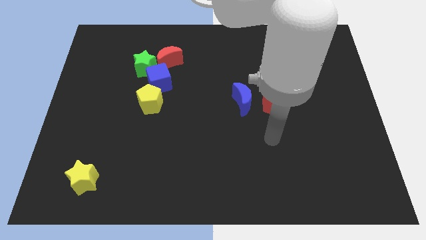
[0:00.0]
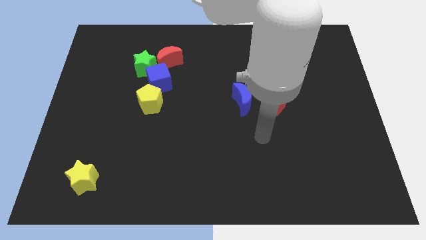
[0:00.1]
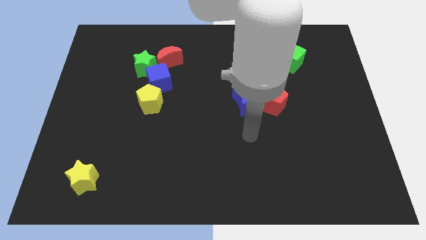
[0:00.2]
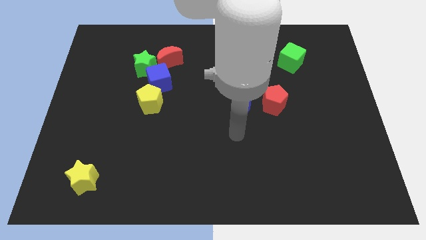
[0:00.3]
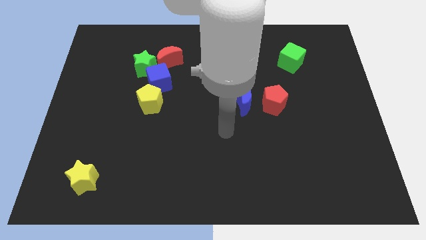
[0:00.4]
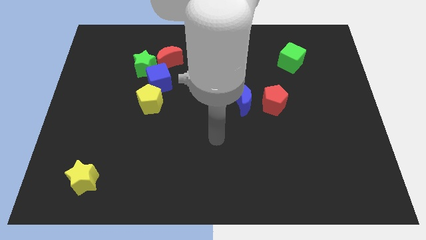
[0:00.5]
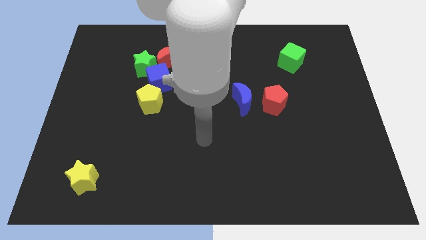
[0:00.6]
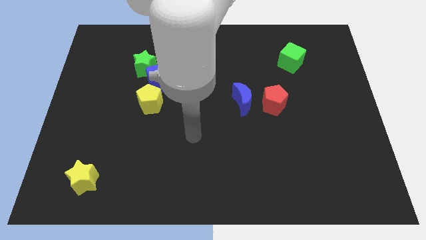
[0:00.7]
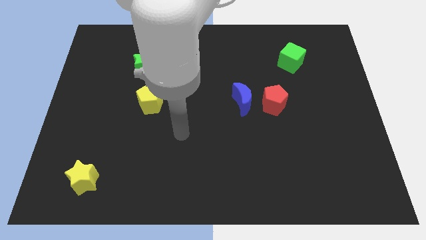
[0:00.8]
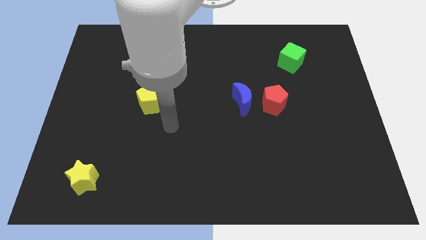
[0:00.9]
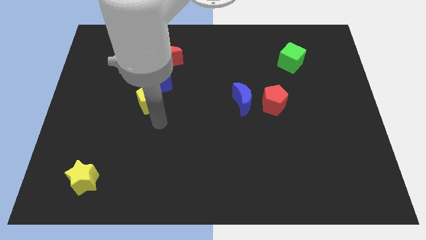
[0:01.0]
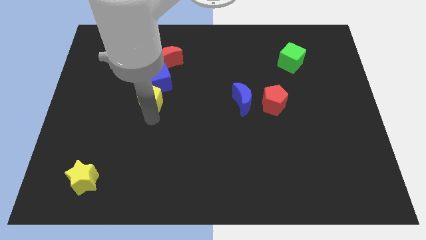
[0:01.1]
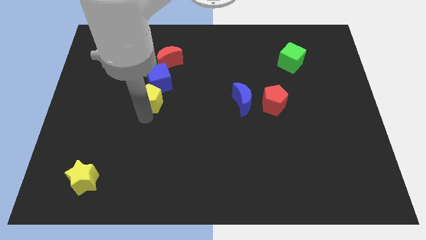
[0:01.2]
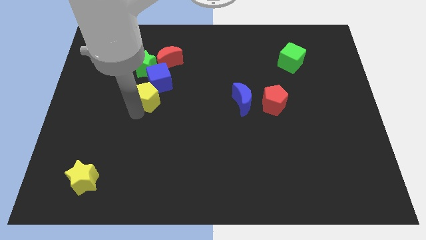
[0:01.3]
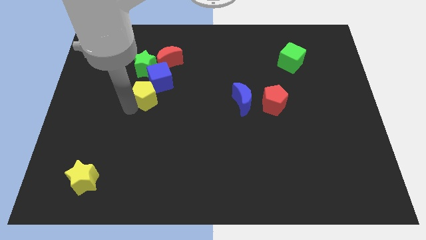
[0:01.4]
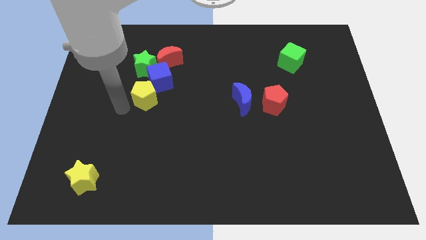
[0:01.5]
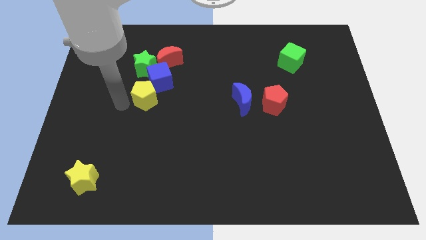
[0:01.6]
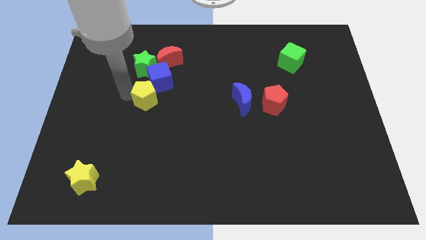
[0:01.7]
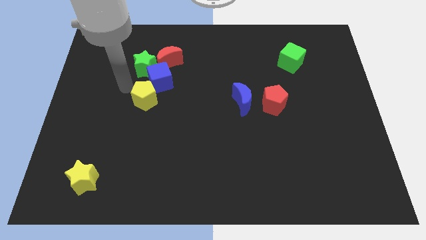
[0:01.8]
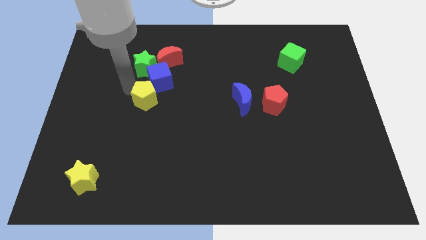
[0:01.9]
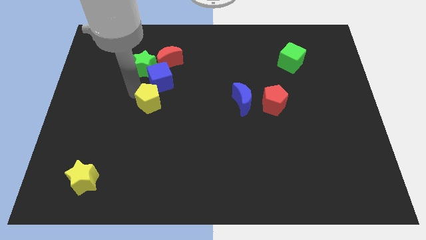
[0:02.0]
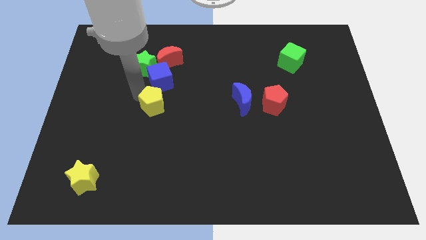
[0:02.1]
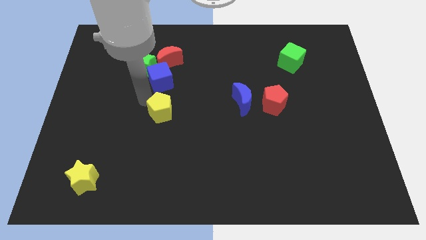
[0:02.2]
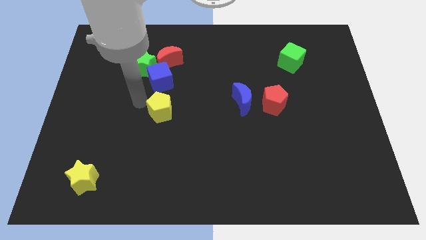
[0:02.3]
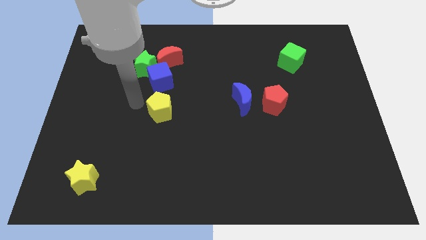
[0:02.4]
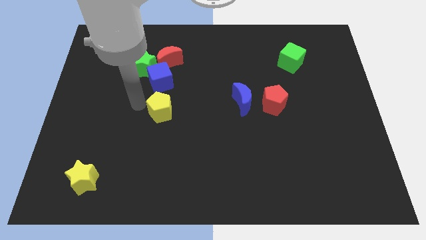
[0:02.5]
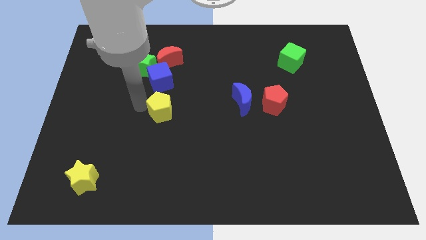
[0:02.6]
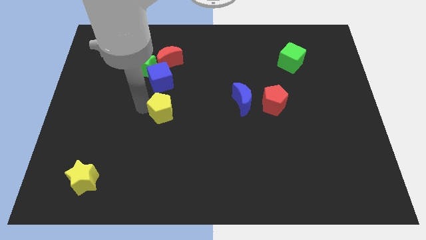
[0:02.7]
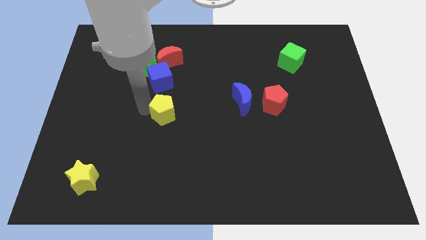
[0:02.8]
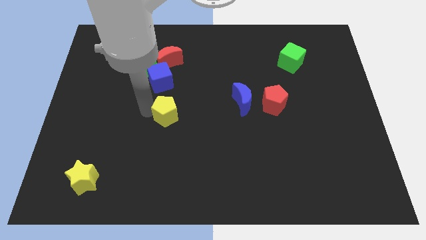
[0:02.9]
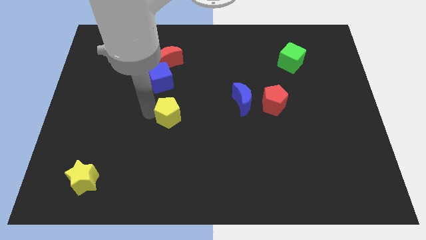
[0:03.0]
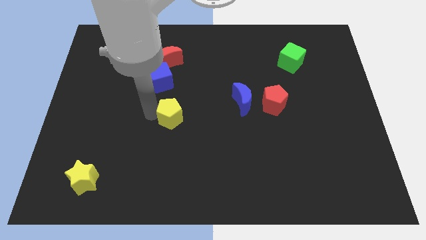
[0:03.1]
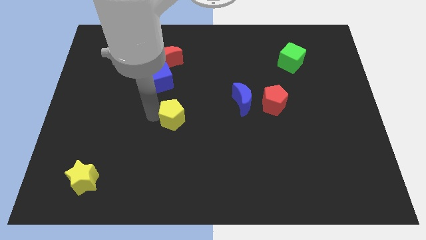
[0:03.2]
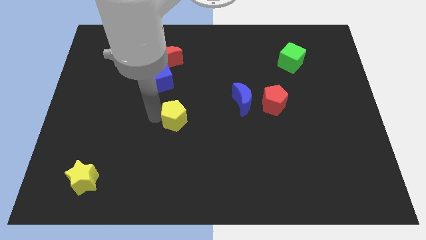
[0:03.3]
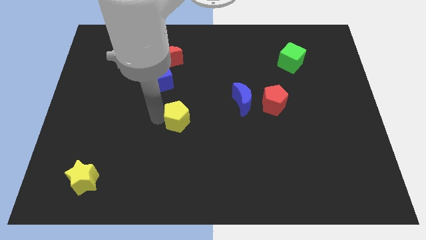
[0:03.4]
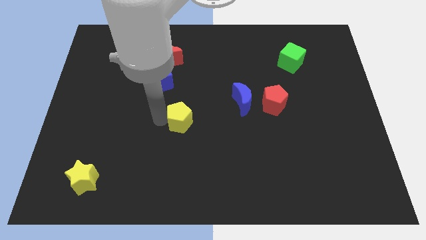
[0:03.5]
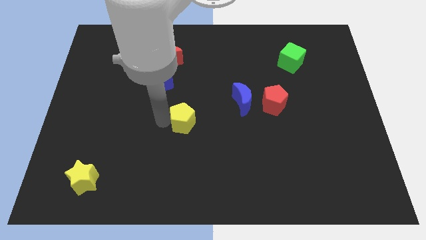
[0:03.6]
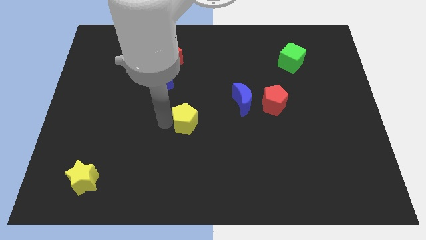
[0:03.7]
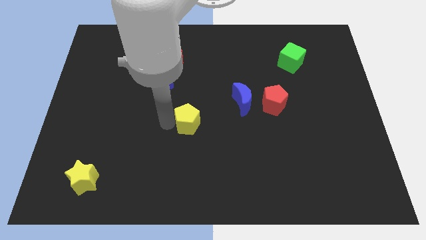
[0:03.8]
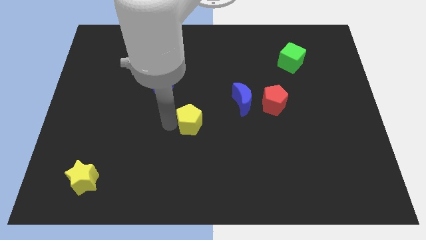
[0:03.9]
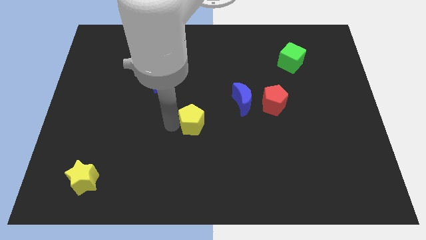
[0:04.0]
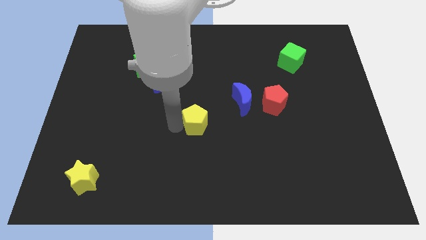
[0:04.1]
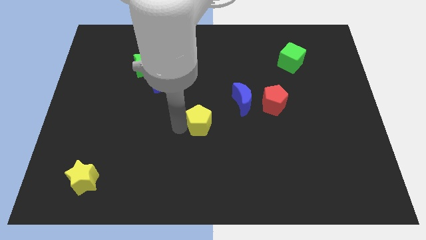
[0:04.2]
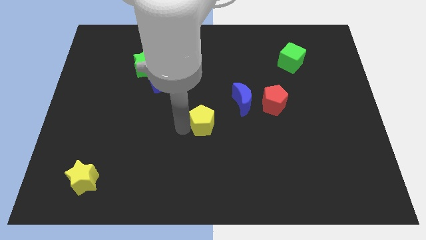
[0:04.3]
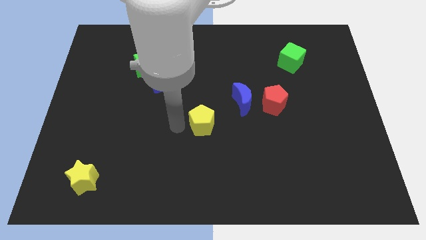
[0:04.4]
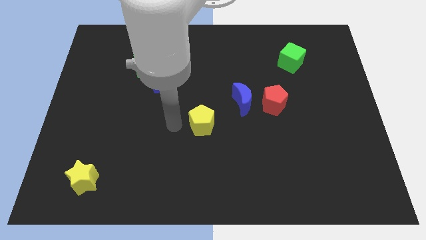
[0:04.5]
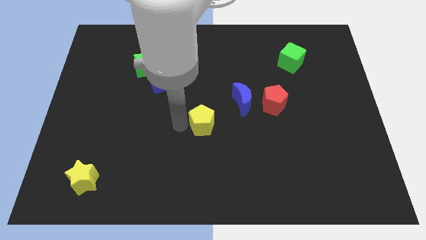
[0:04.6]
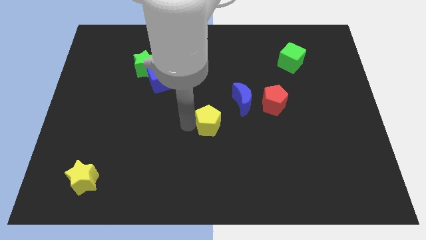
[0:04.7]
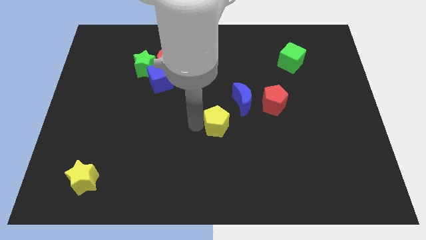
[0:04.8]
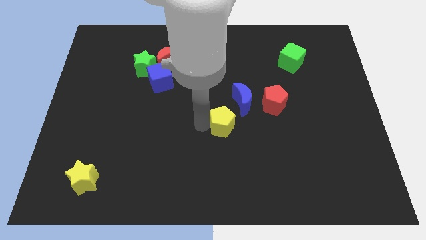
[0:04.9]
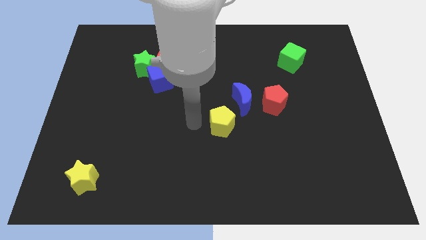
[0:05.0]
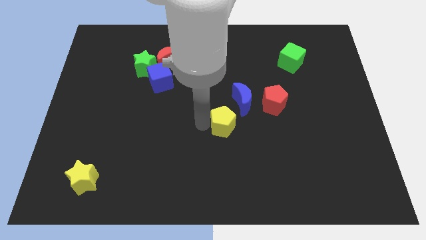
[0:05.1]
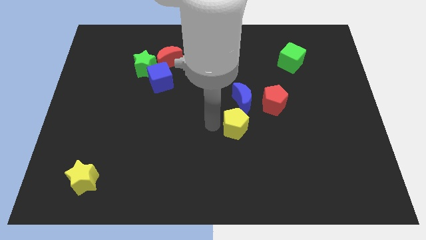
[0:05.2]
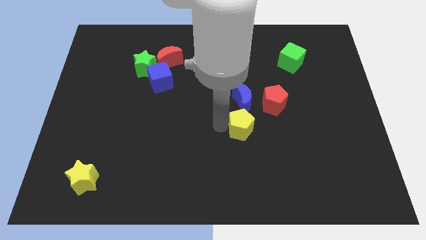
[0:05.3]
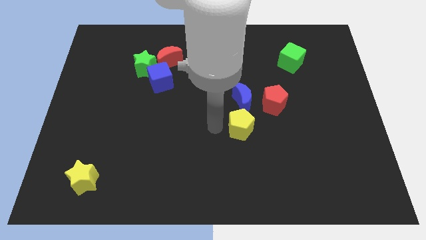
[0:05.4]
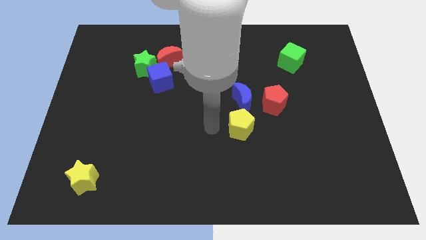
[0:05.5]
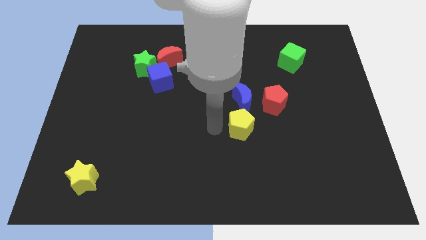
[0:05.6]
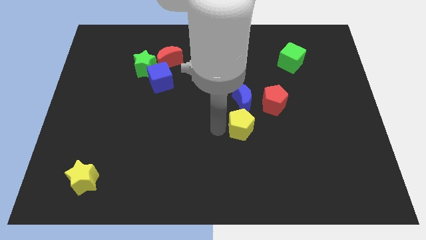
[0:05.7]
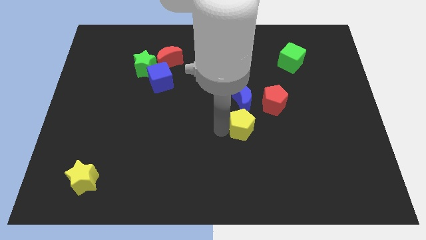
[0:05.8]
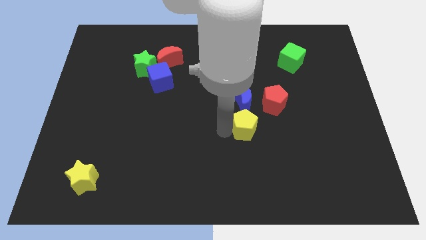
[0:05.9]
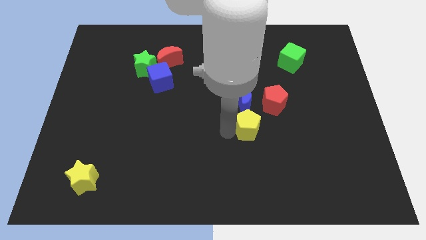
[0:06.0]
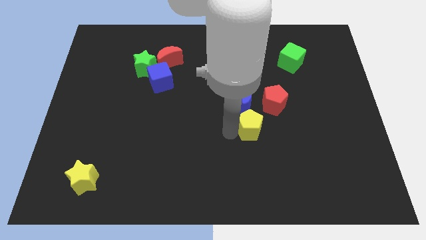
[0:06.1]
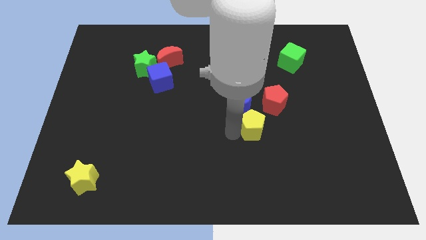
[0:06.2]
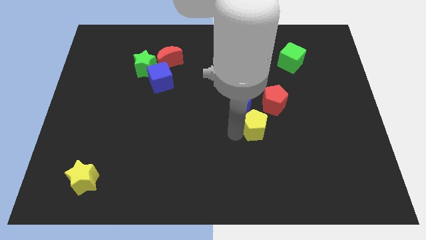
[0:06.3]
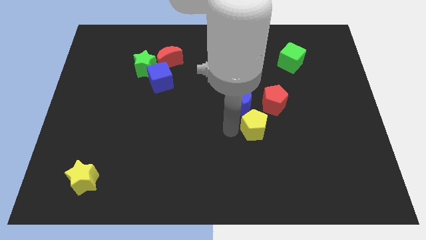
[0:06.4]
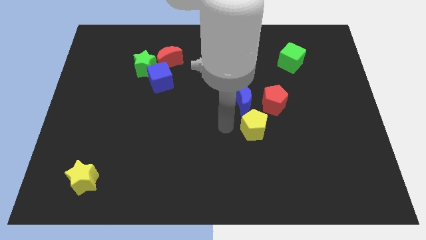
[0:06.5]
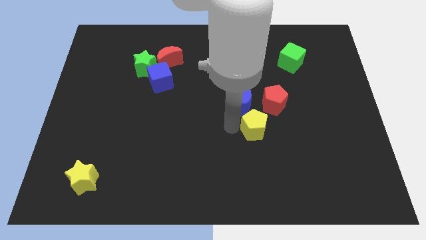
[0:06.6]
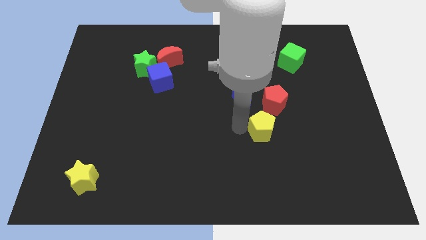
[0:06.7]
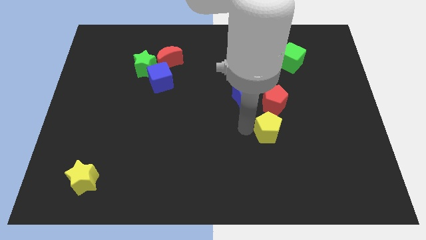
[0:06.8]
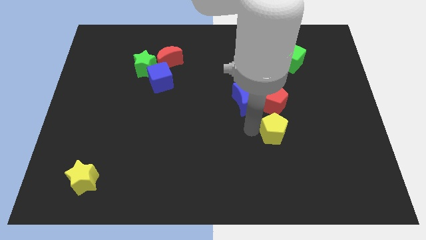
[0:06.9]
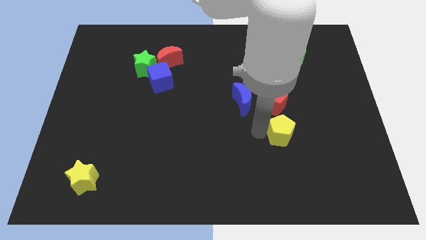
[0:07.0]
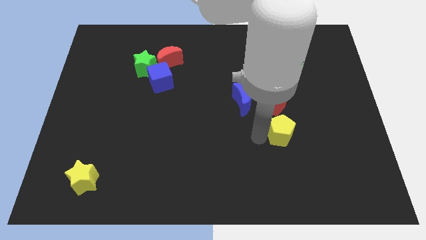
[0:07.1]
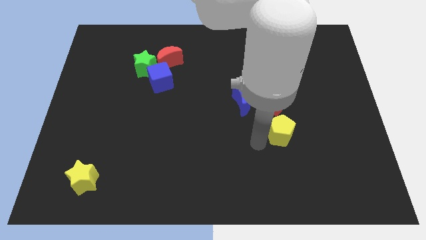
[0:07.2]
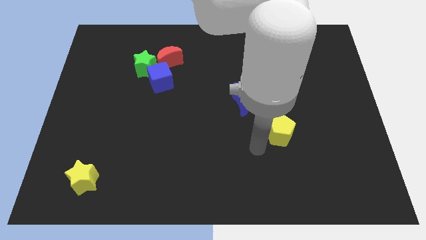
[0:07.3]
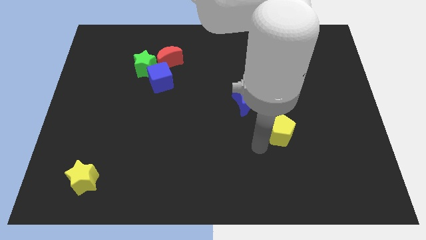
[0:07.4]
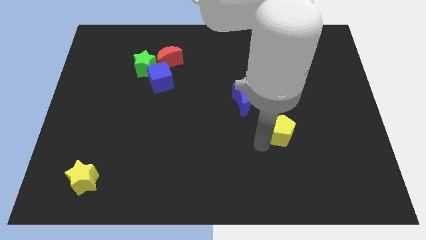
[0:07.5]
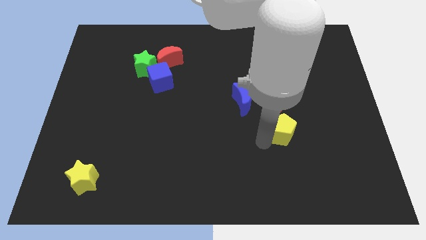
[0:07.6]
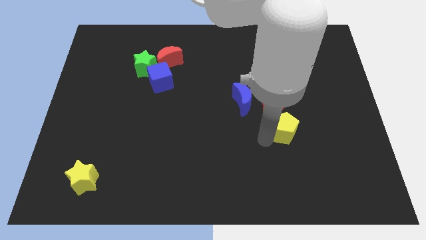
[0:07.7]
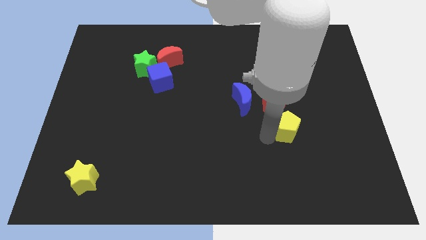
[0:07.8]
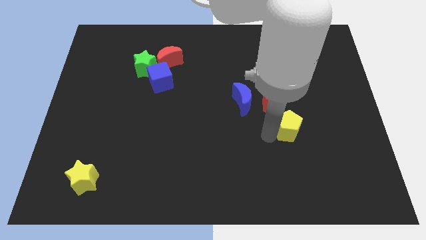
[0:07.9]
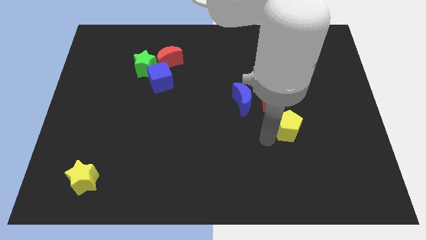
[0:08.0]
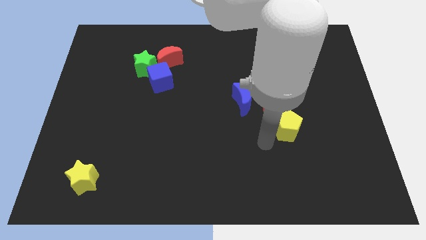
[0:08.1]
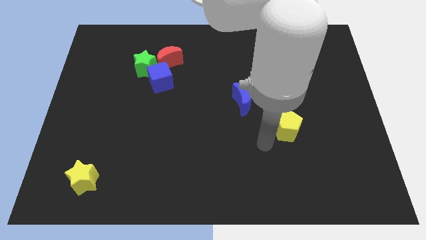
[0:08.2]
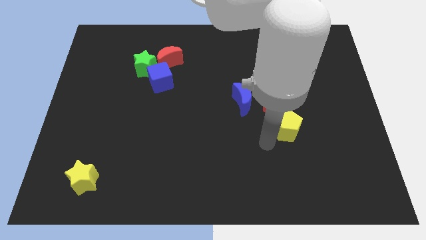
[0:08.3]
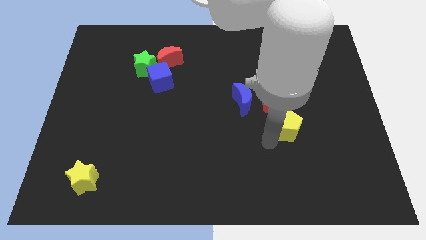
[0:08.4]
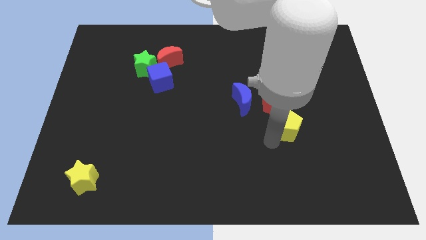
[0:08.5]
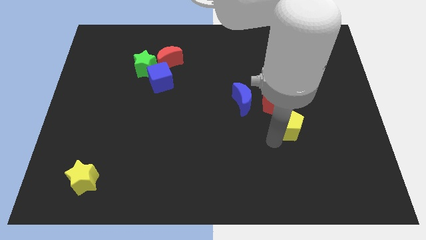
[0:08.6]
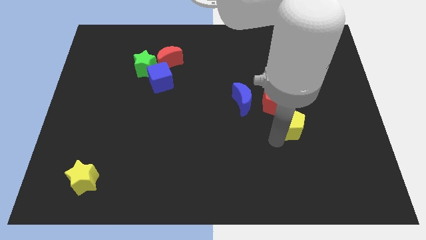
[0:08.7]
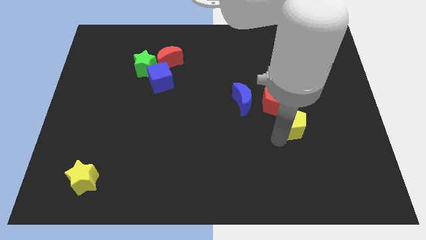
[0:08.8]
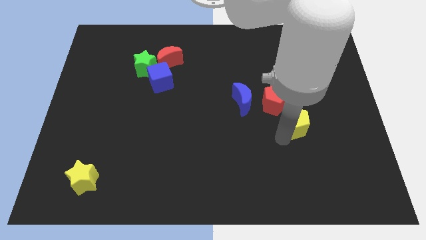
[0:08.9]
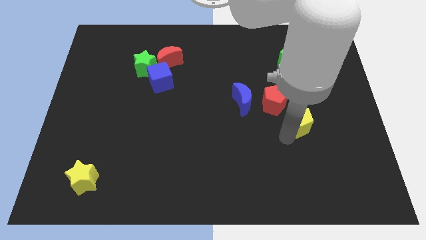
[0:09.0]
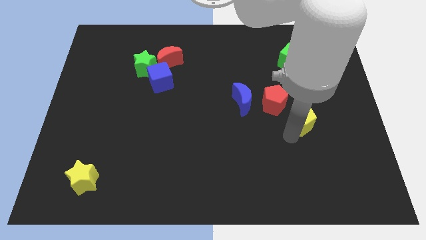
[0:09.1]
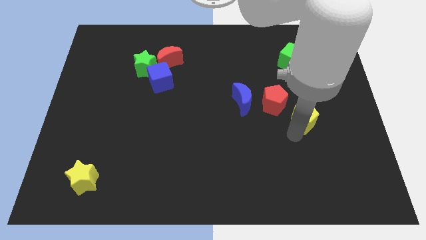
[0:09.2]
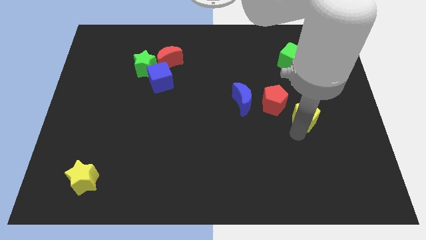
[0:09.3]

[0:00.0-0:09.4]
move the yellow pentagon right of the red pentagon
